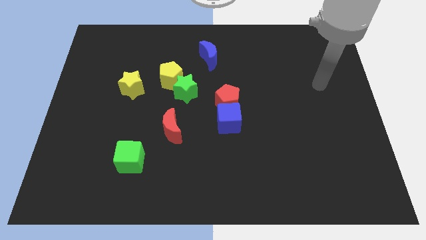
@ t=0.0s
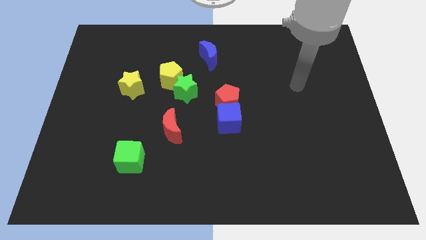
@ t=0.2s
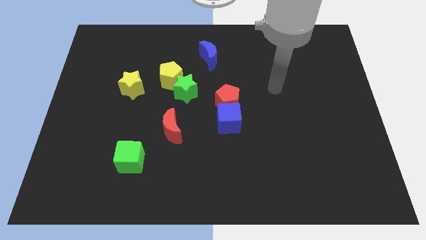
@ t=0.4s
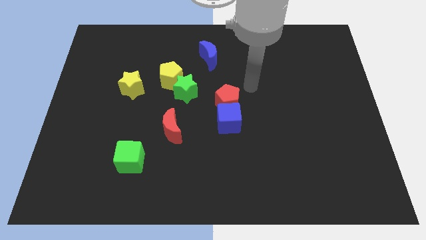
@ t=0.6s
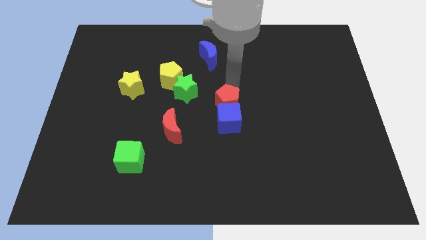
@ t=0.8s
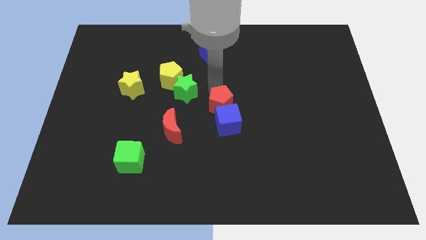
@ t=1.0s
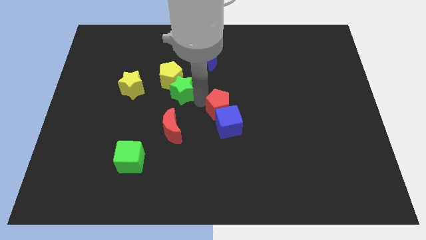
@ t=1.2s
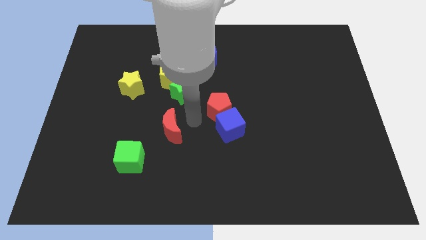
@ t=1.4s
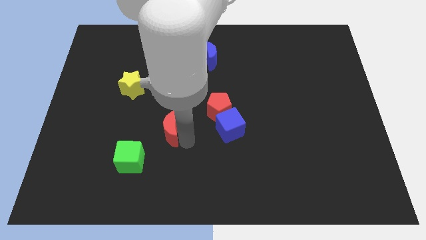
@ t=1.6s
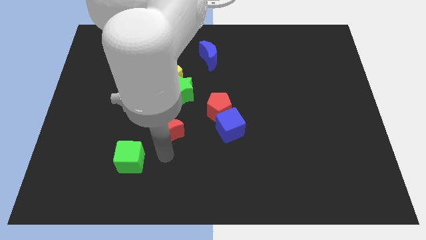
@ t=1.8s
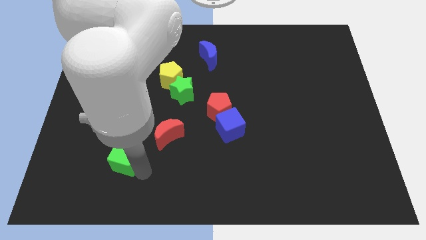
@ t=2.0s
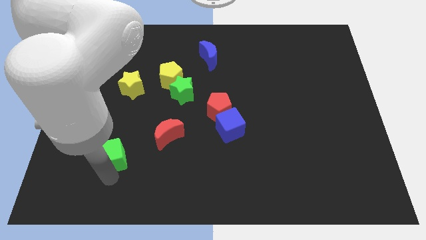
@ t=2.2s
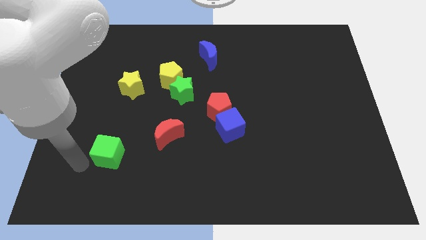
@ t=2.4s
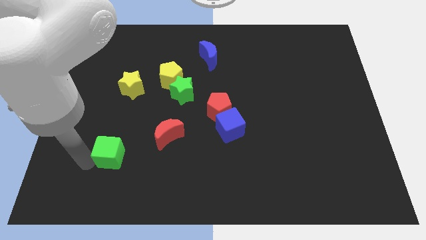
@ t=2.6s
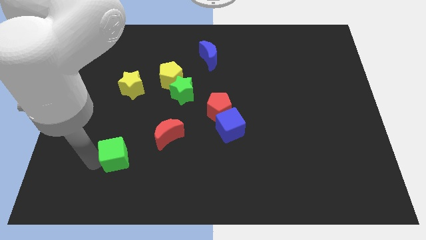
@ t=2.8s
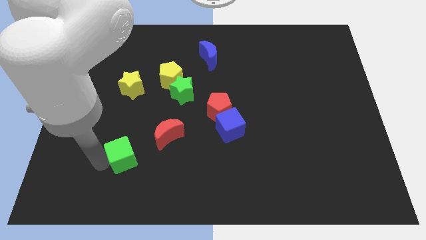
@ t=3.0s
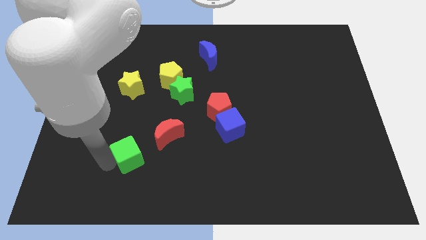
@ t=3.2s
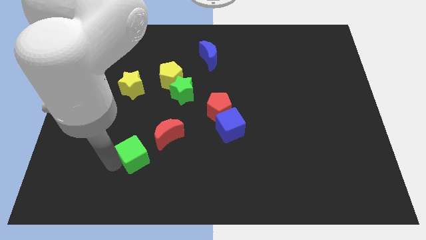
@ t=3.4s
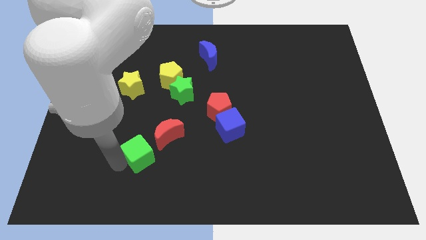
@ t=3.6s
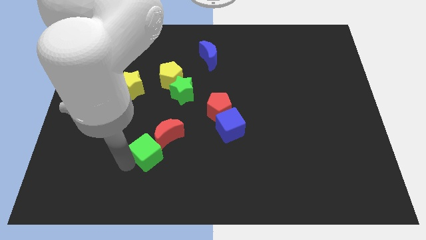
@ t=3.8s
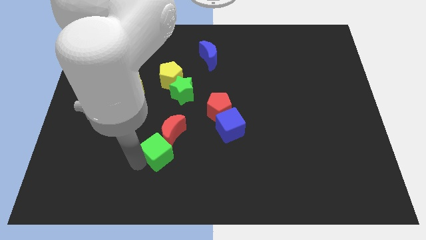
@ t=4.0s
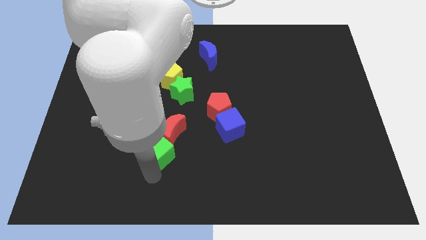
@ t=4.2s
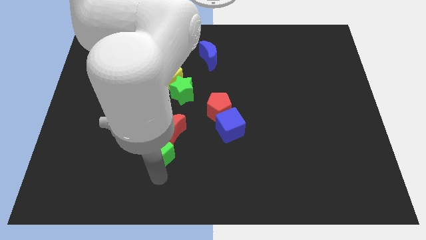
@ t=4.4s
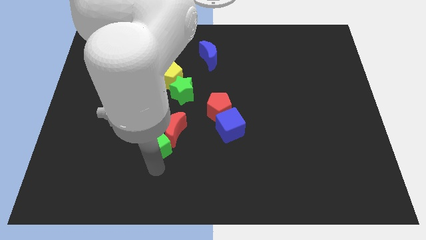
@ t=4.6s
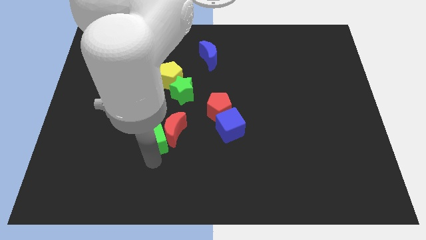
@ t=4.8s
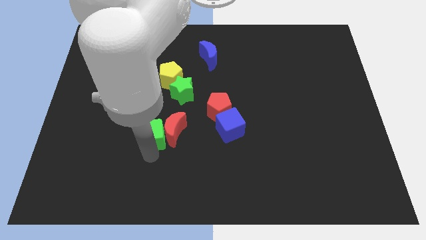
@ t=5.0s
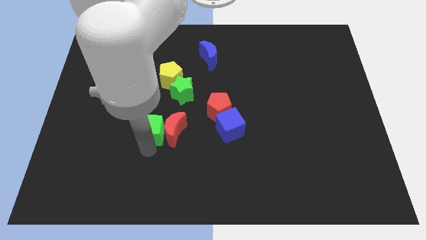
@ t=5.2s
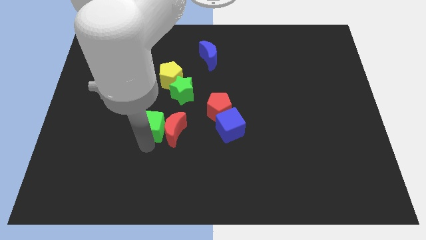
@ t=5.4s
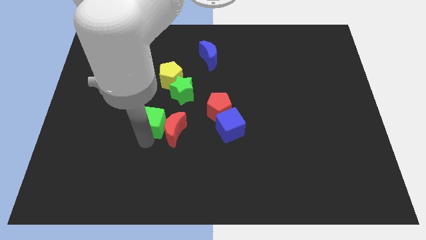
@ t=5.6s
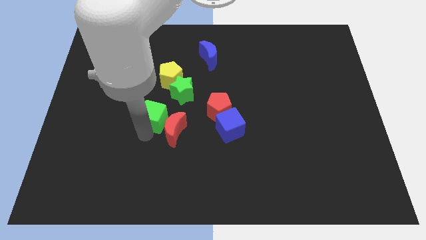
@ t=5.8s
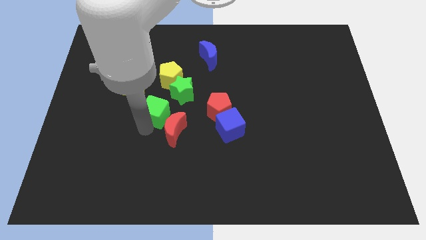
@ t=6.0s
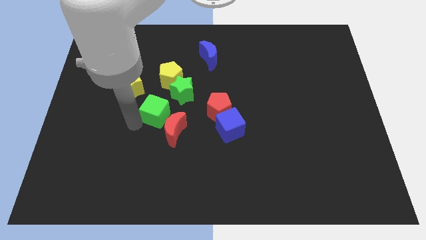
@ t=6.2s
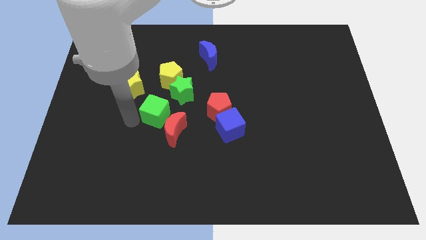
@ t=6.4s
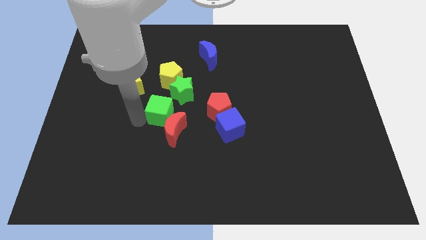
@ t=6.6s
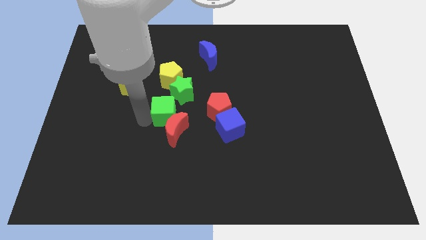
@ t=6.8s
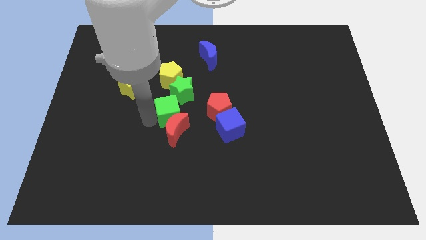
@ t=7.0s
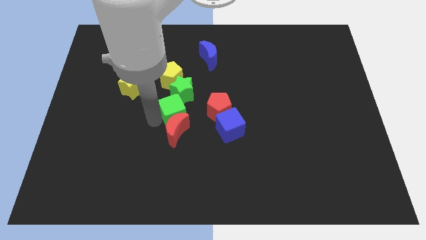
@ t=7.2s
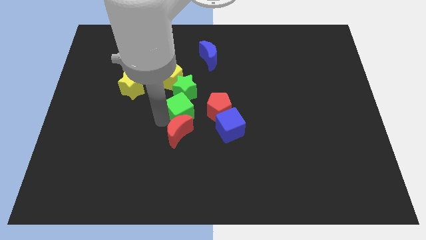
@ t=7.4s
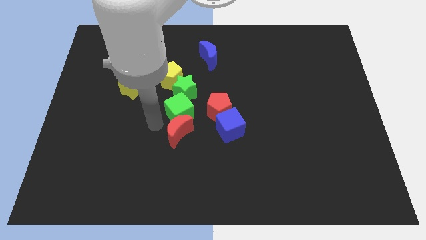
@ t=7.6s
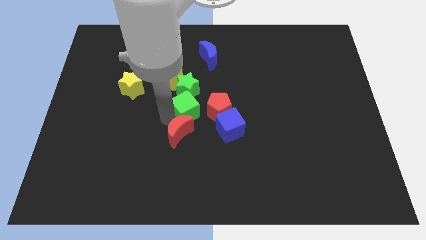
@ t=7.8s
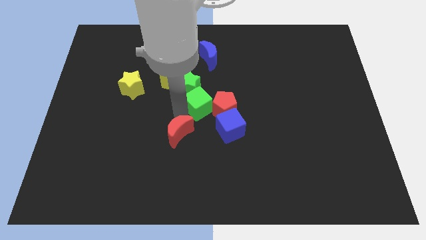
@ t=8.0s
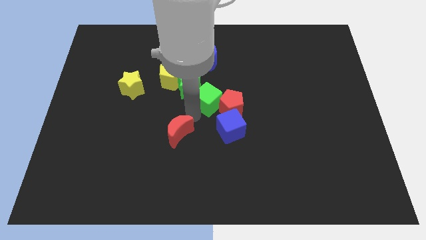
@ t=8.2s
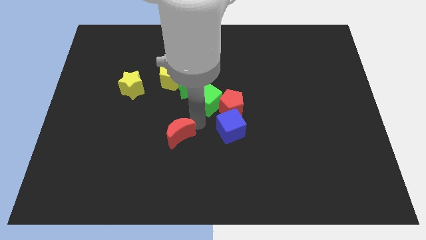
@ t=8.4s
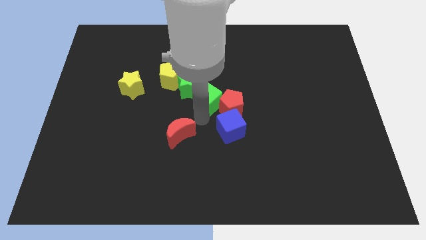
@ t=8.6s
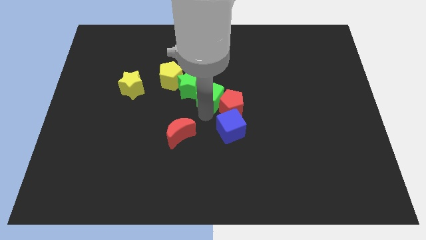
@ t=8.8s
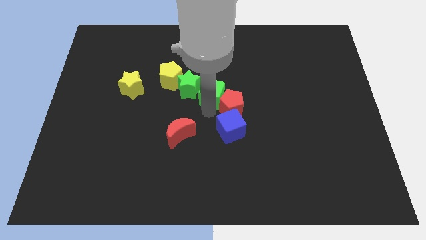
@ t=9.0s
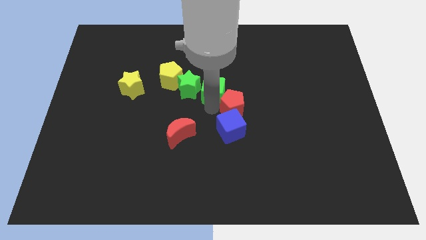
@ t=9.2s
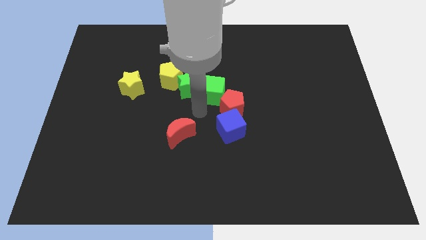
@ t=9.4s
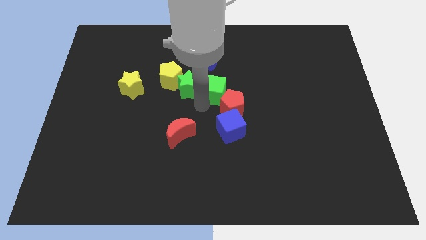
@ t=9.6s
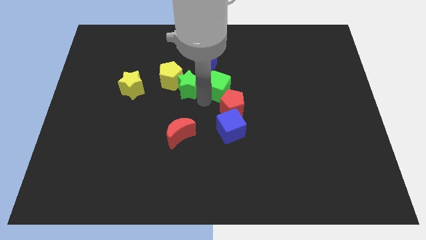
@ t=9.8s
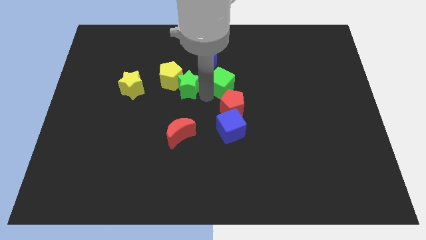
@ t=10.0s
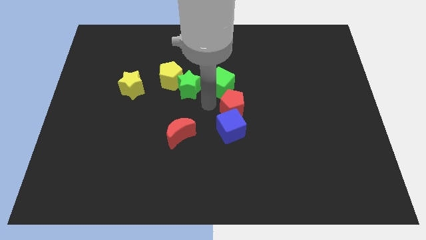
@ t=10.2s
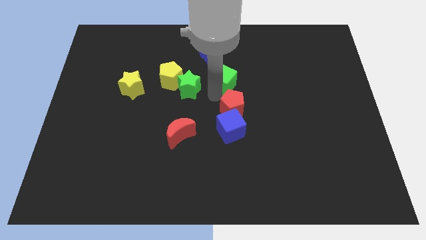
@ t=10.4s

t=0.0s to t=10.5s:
slide the green cube to the bottom right of the blue moon

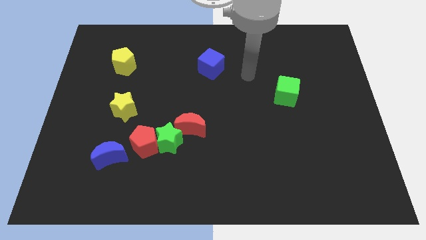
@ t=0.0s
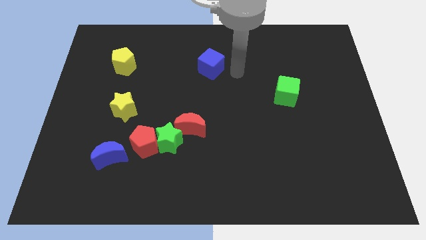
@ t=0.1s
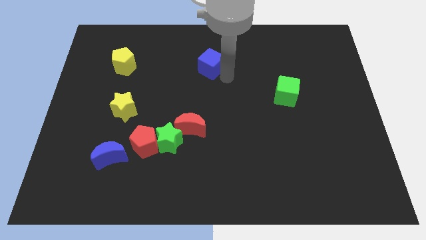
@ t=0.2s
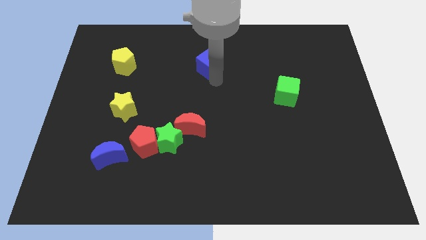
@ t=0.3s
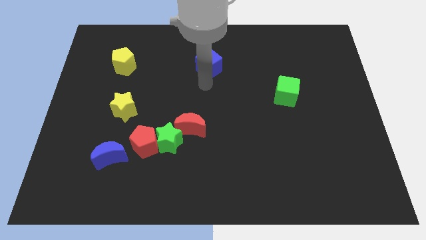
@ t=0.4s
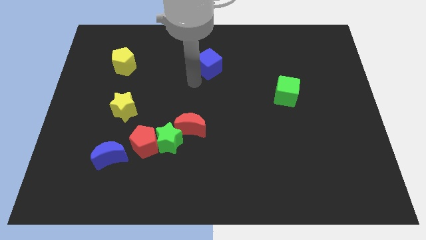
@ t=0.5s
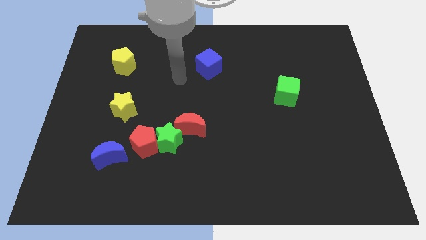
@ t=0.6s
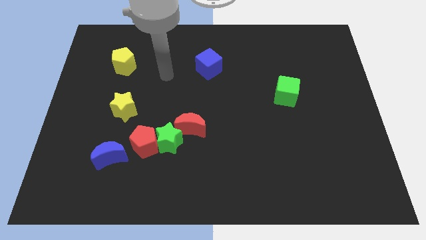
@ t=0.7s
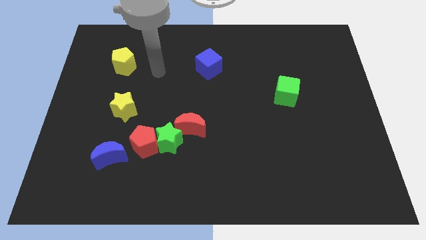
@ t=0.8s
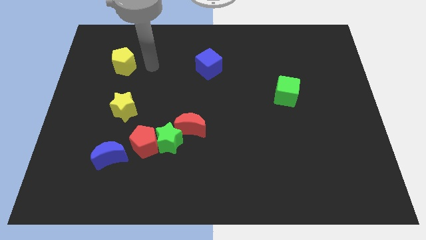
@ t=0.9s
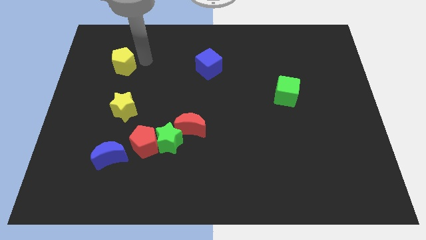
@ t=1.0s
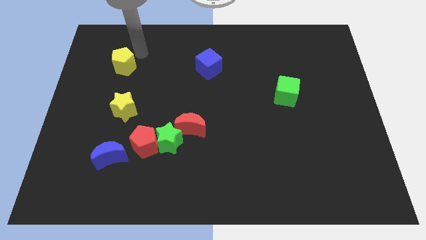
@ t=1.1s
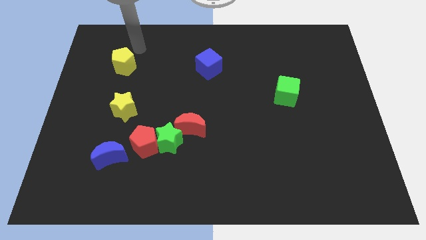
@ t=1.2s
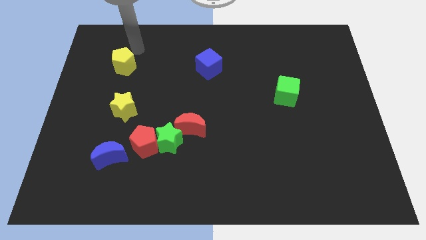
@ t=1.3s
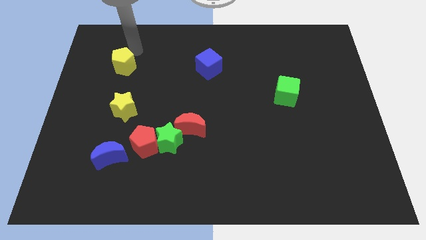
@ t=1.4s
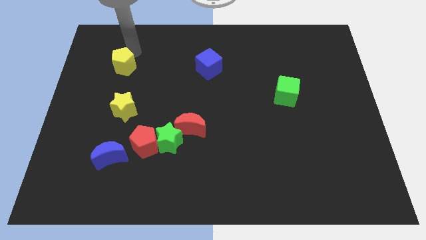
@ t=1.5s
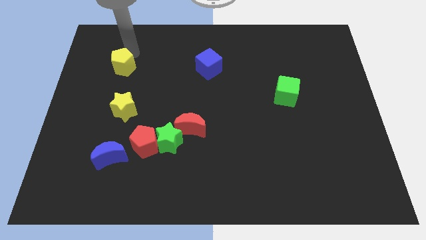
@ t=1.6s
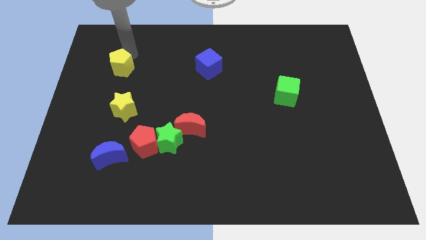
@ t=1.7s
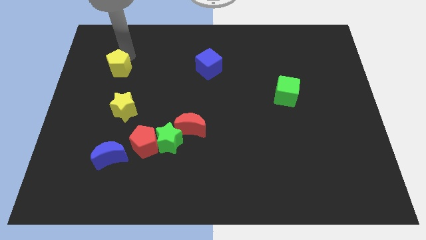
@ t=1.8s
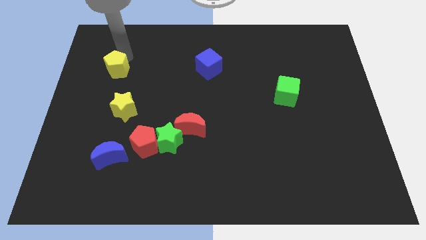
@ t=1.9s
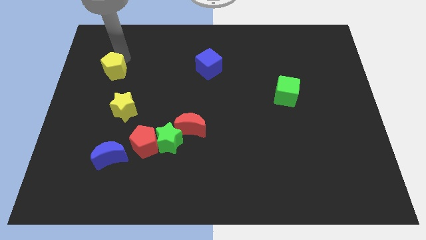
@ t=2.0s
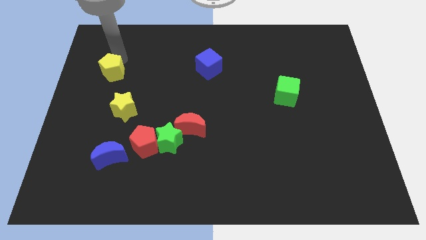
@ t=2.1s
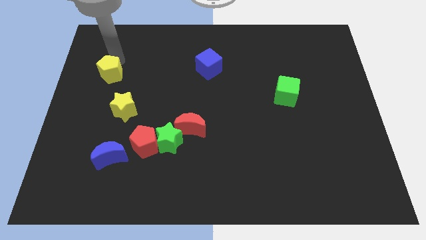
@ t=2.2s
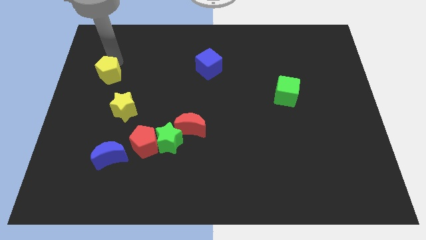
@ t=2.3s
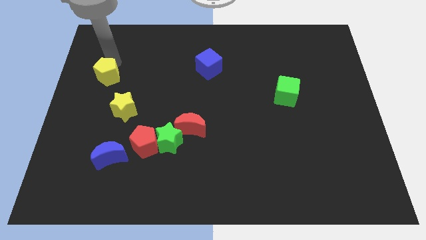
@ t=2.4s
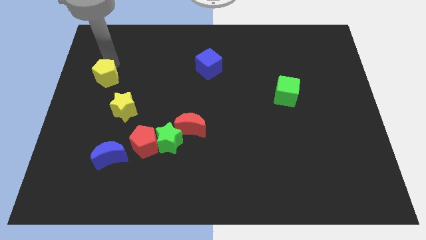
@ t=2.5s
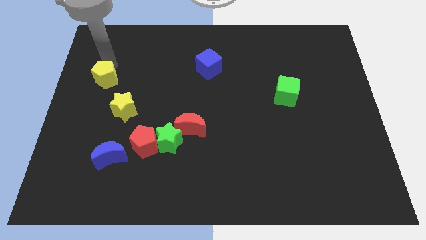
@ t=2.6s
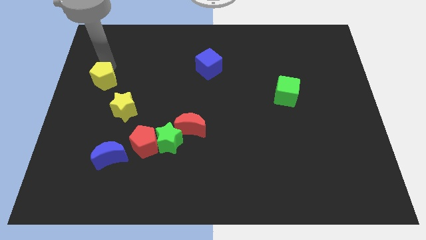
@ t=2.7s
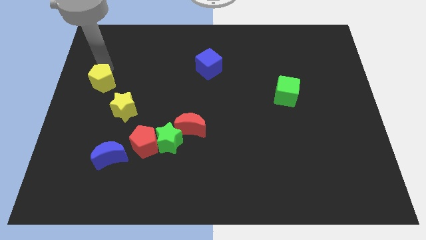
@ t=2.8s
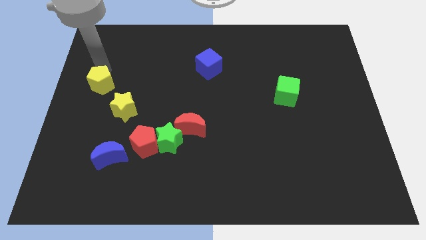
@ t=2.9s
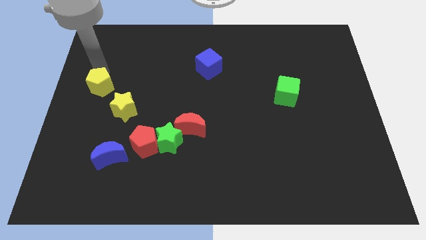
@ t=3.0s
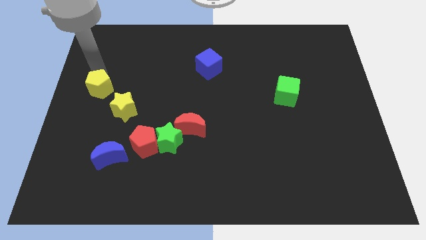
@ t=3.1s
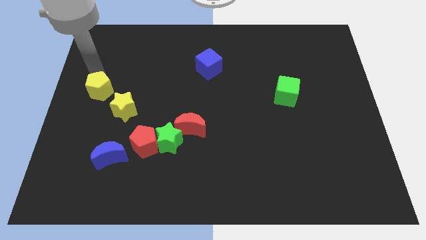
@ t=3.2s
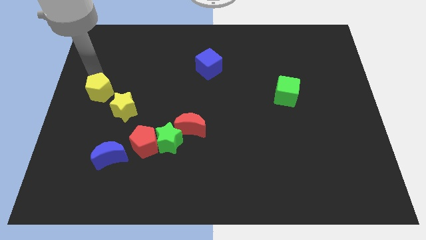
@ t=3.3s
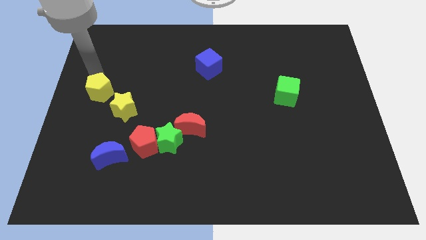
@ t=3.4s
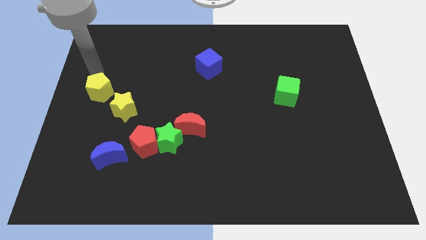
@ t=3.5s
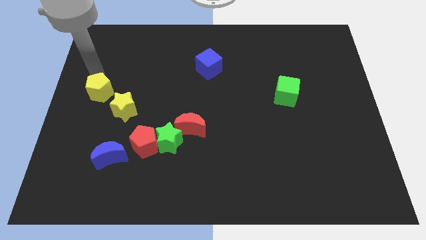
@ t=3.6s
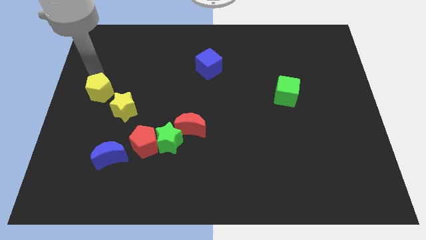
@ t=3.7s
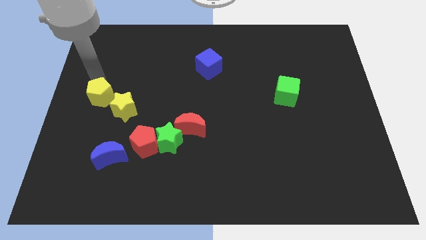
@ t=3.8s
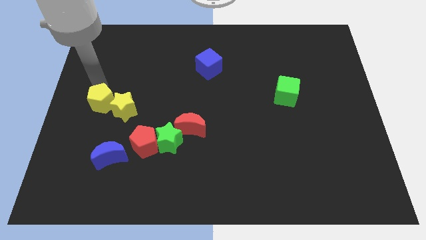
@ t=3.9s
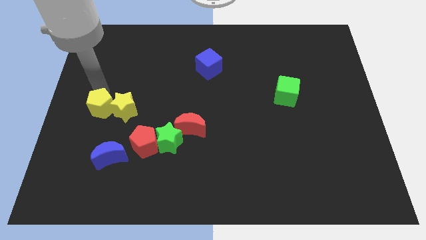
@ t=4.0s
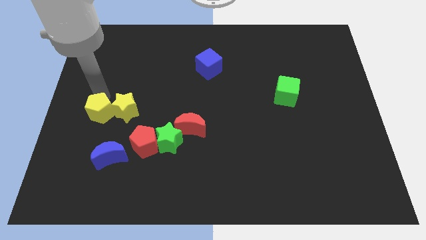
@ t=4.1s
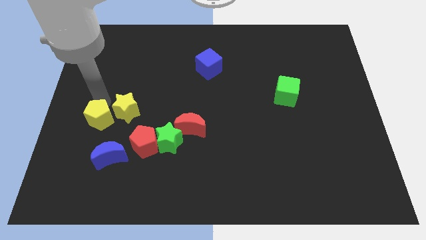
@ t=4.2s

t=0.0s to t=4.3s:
put the yellow pentagon to the top left side of the blue moon
